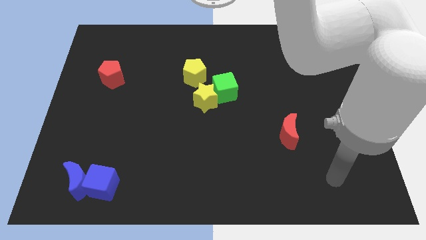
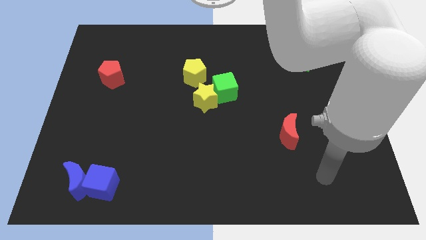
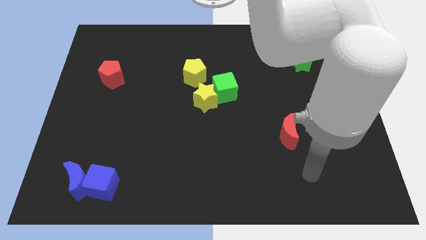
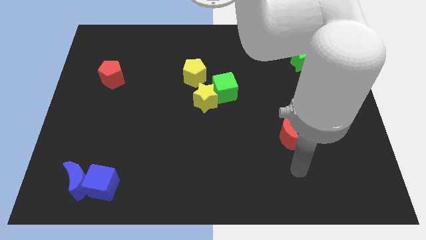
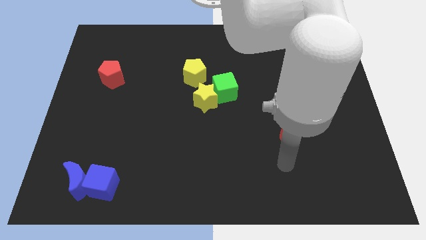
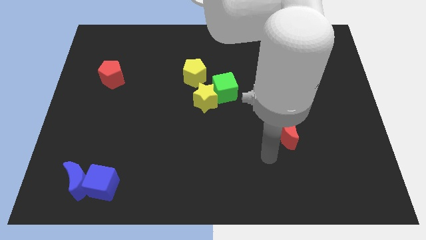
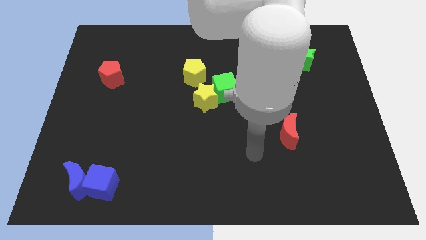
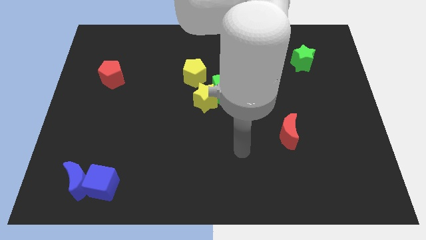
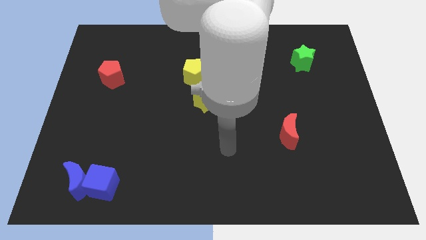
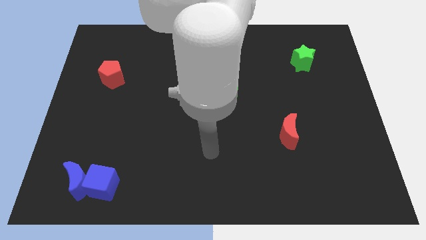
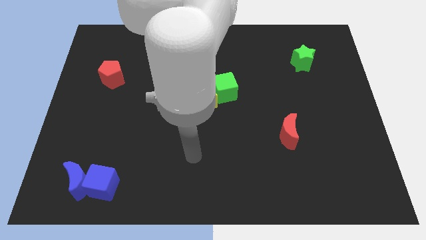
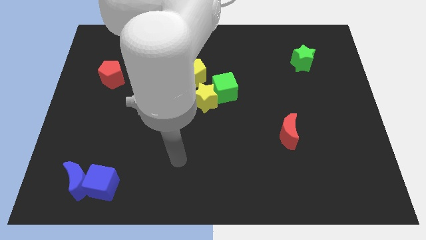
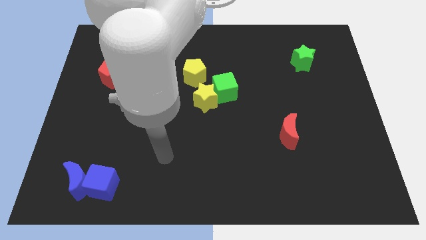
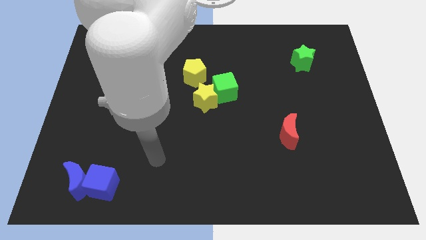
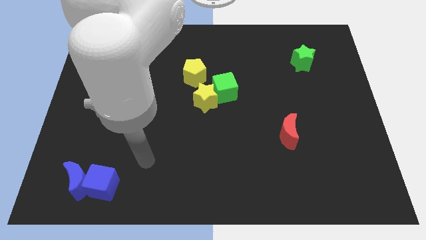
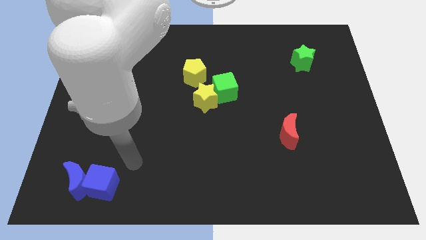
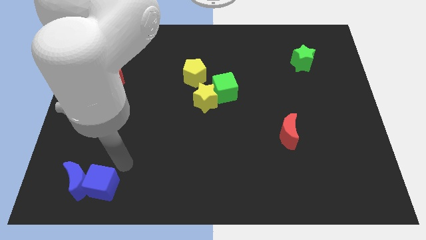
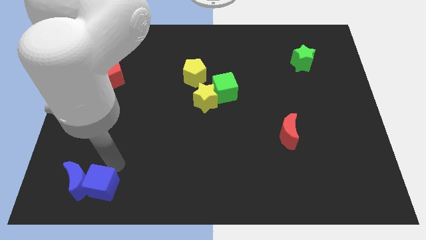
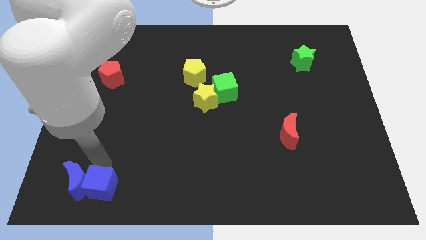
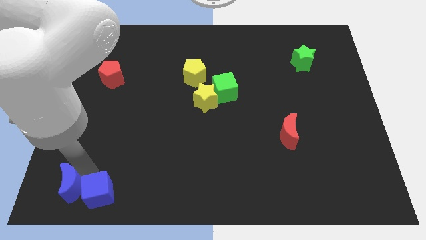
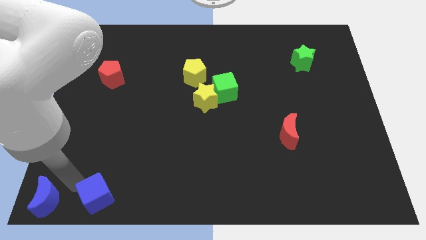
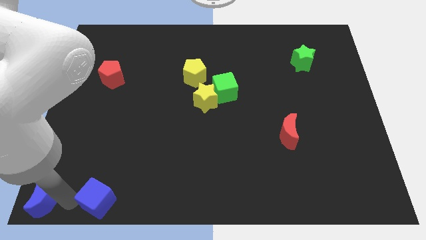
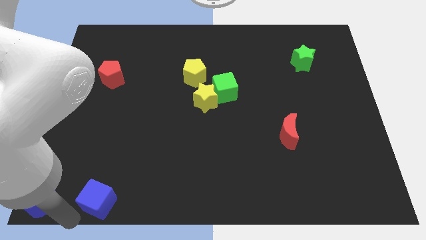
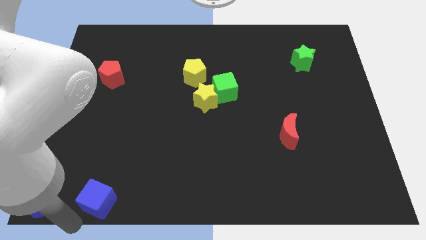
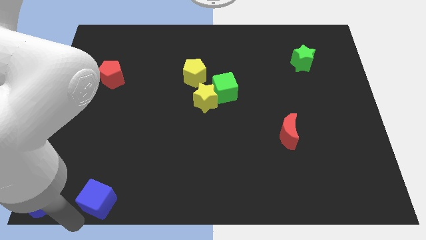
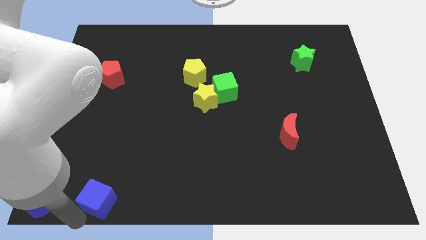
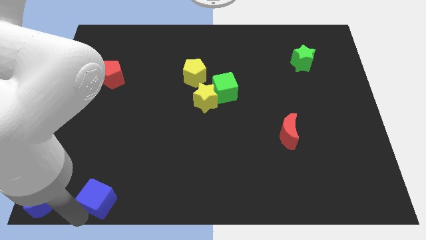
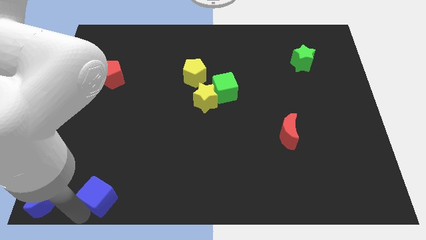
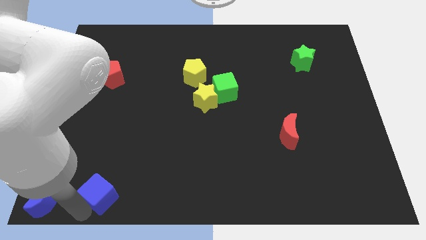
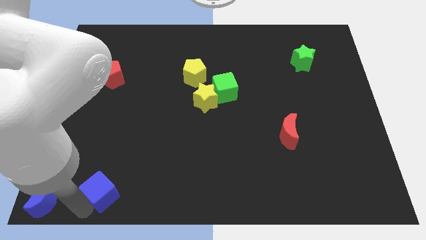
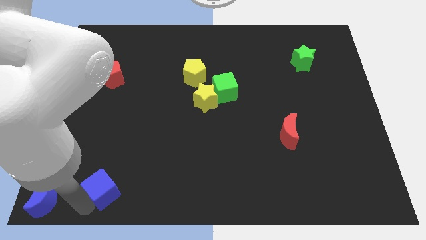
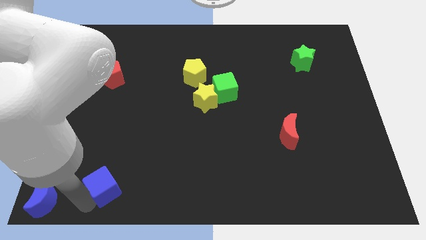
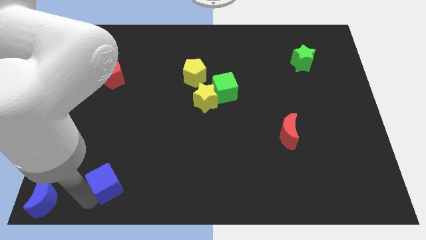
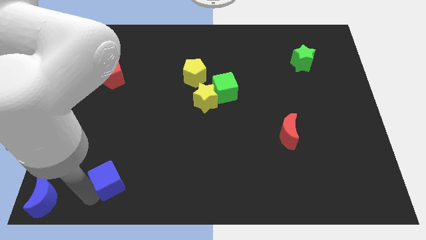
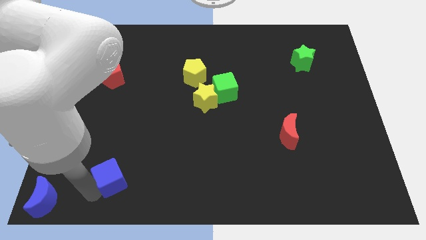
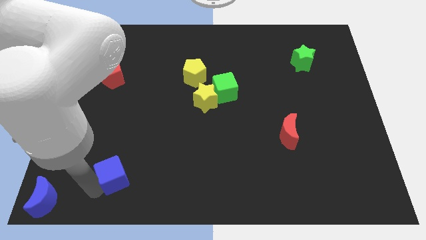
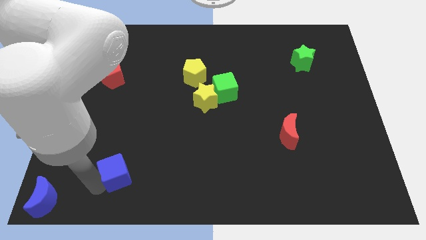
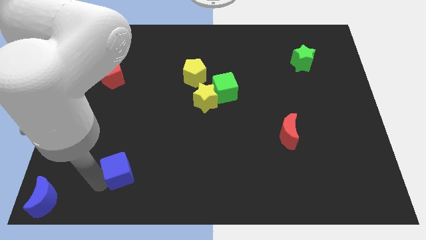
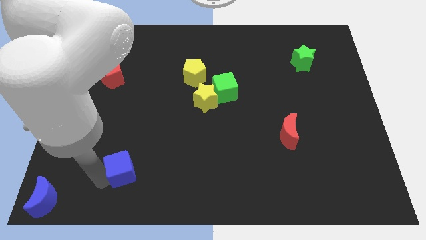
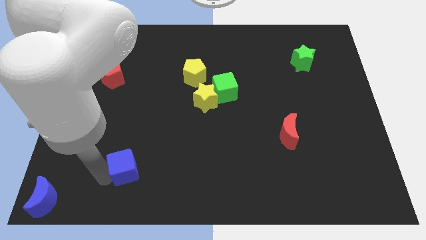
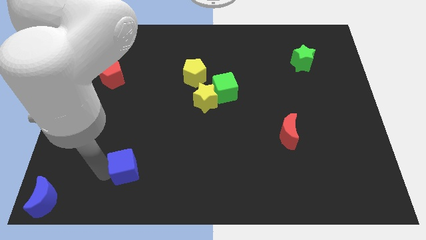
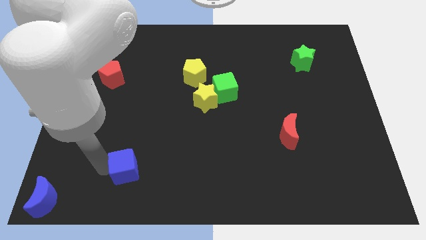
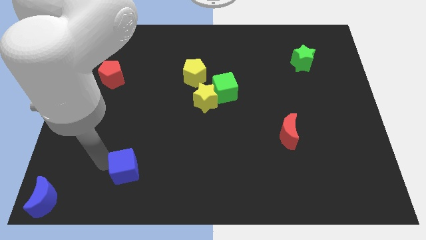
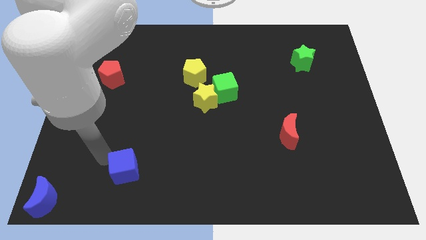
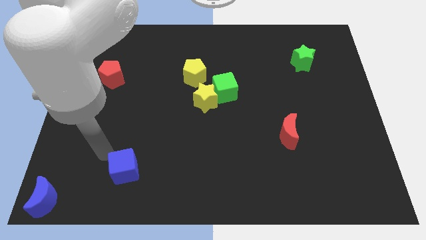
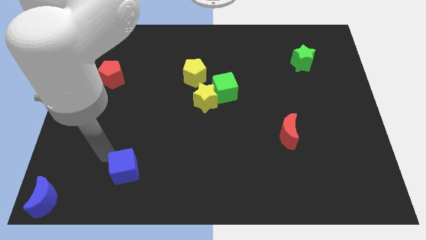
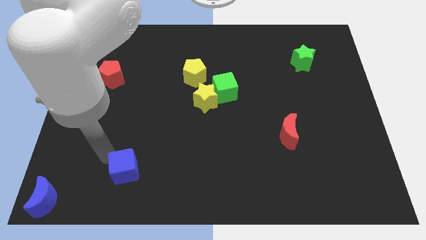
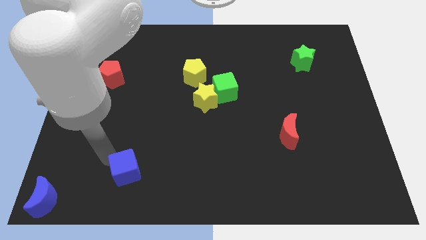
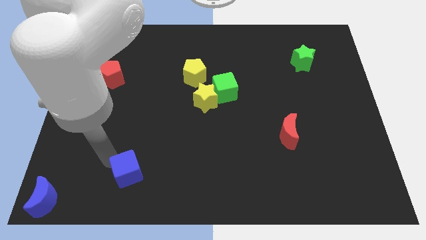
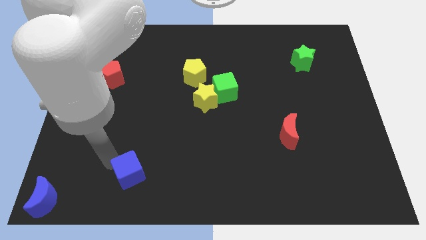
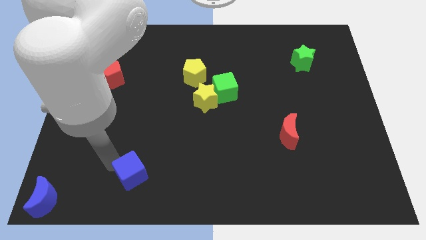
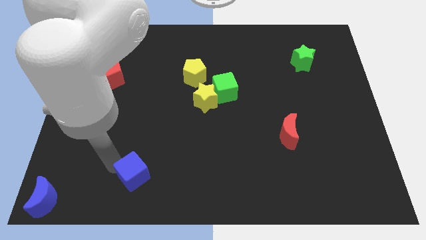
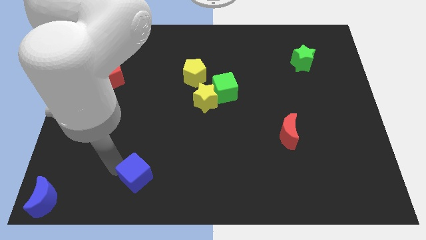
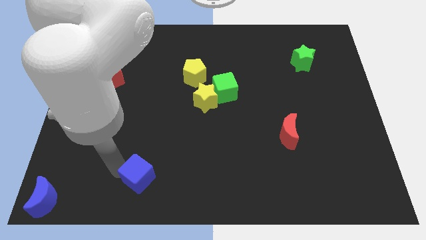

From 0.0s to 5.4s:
slide the blue cube to the right a little

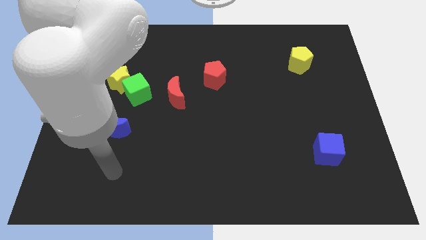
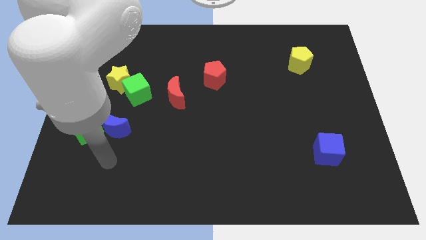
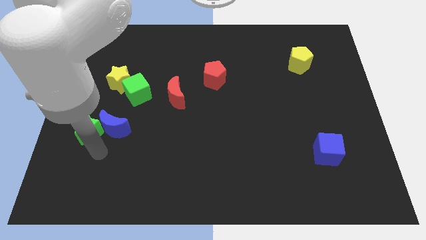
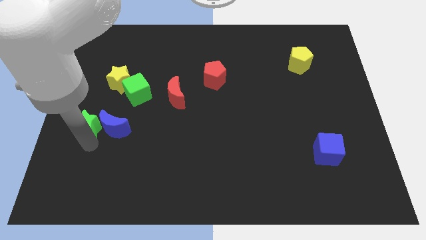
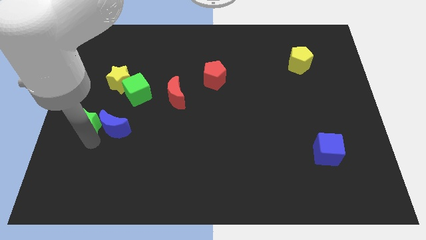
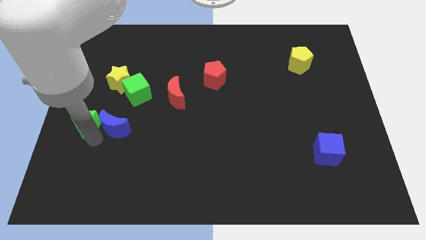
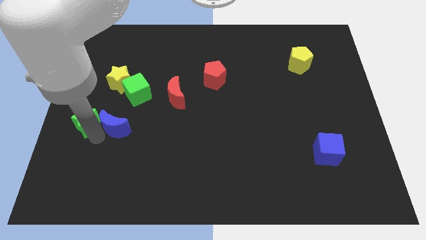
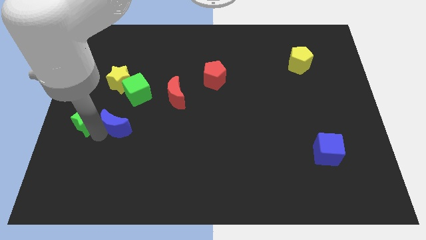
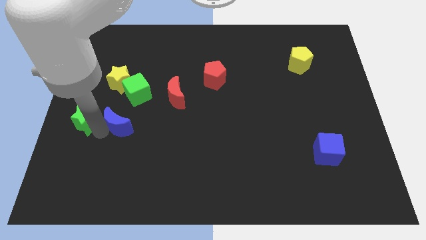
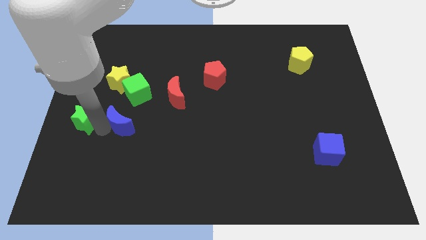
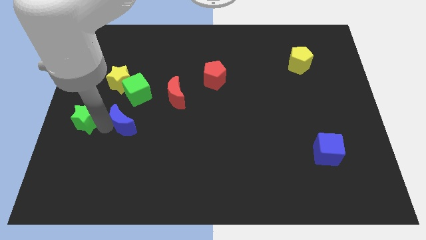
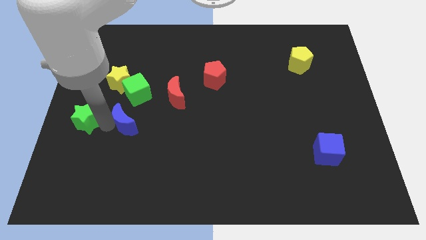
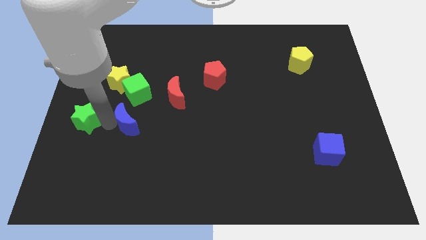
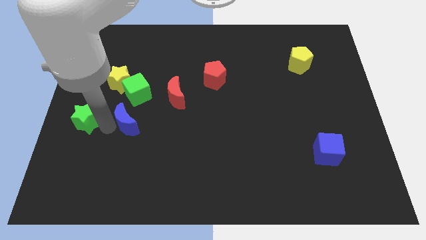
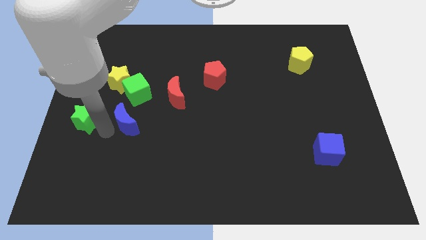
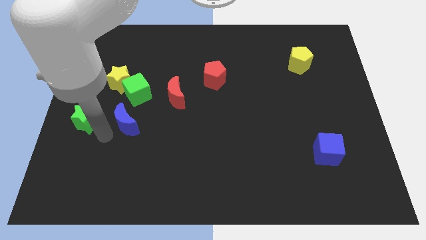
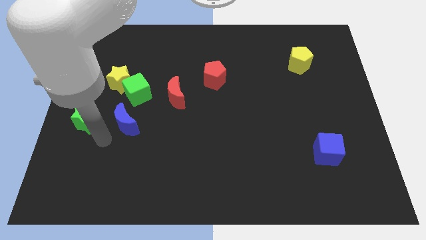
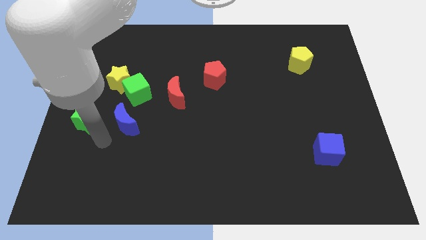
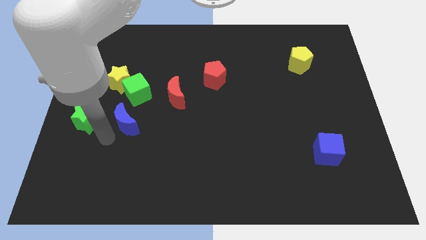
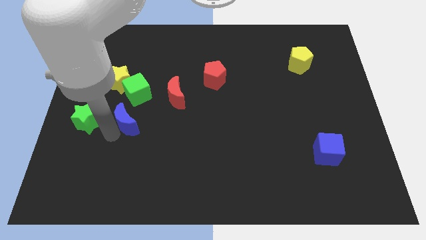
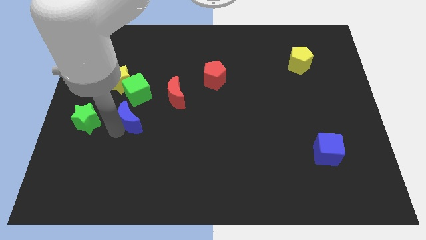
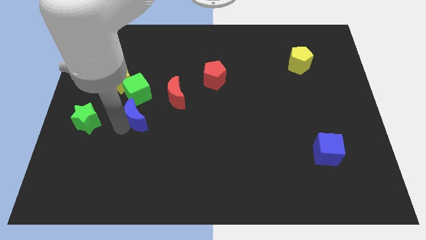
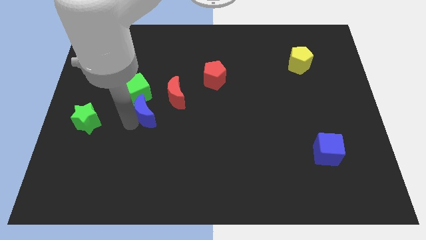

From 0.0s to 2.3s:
push the blue moon a little bit upwards and to the right diagonally

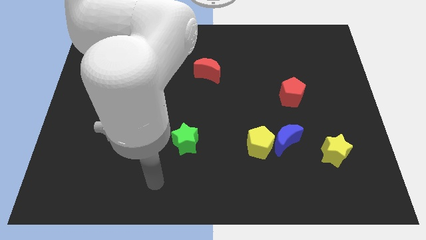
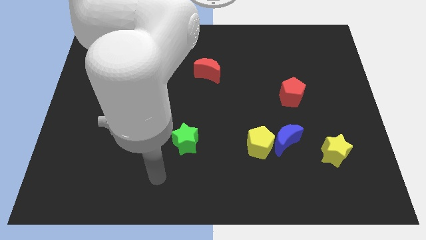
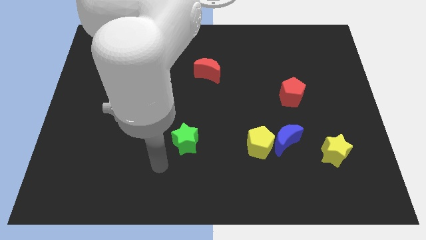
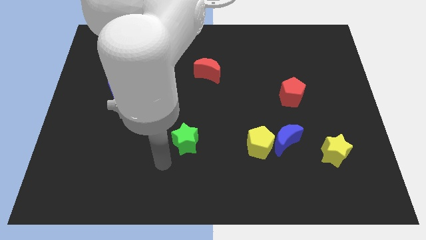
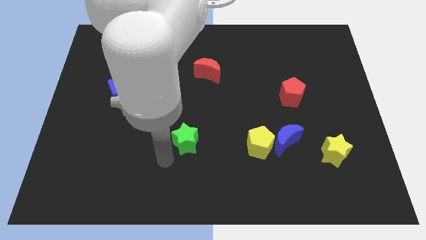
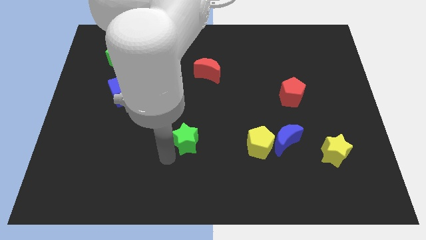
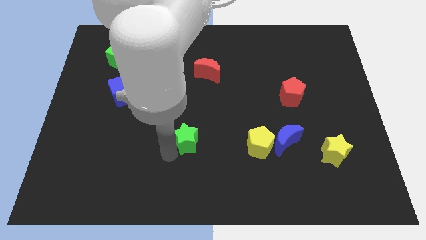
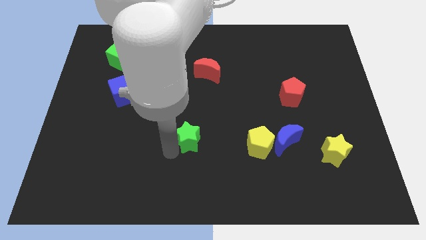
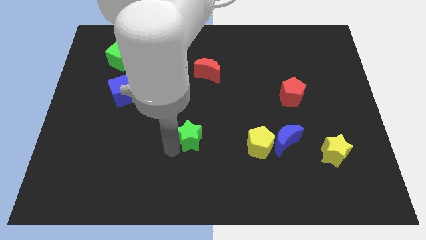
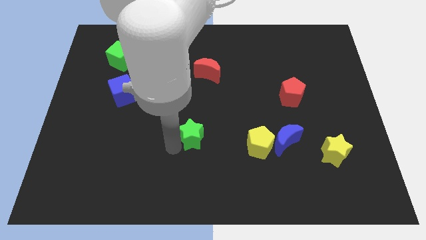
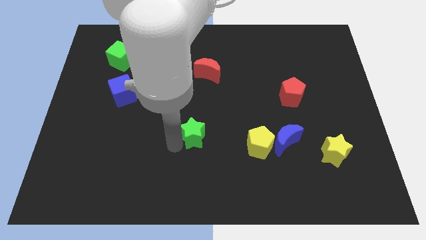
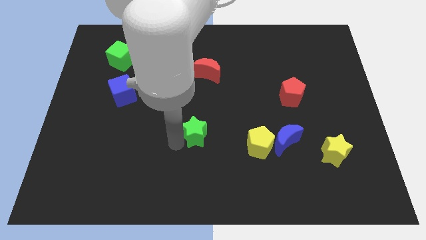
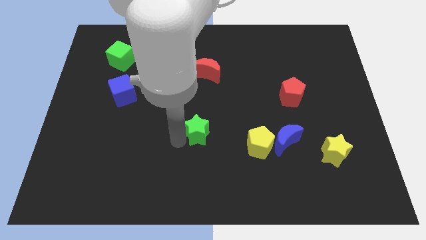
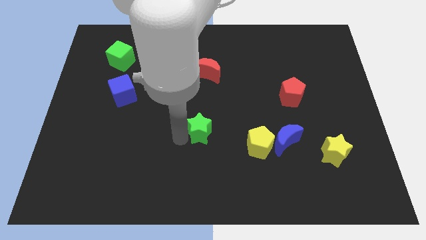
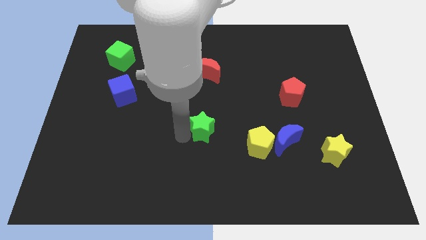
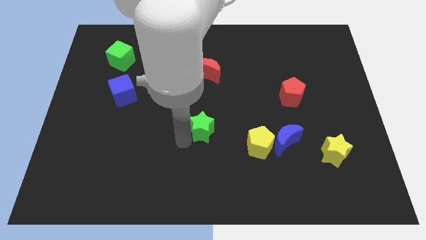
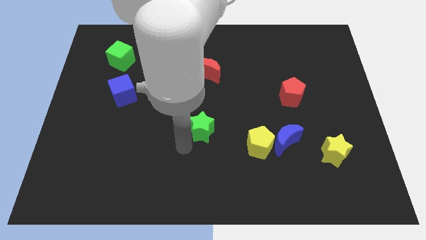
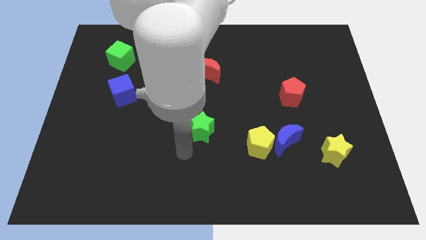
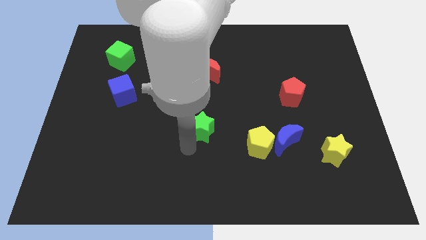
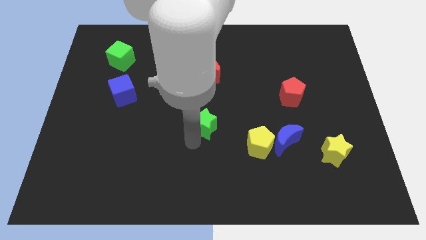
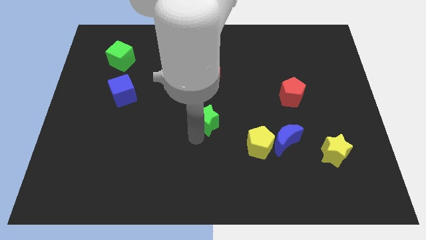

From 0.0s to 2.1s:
slightly move the green star up and then to the right
